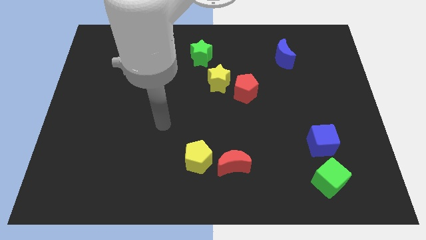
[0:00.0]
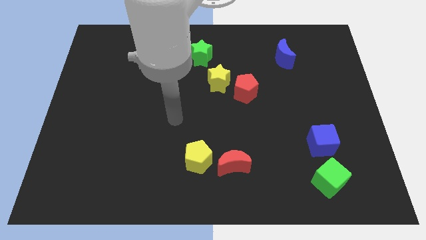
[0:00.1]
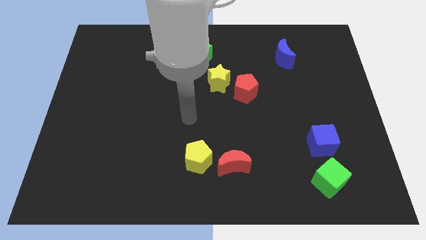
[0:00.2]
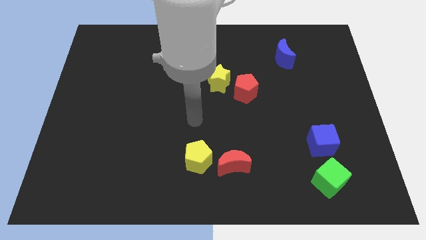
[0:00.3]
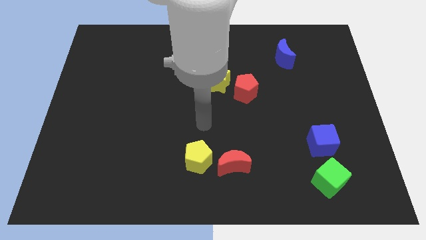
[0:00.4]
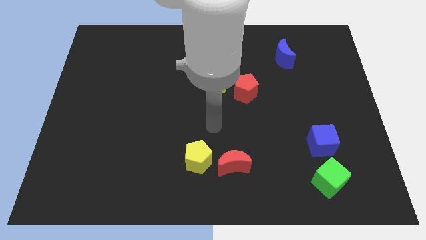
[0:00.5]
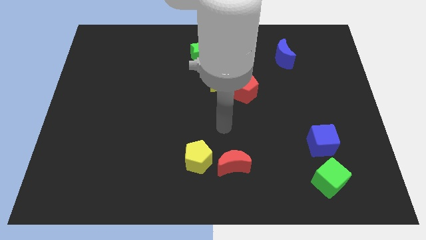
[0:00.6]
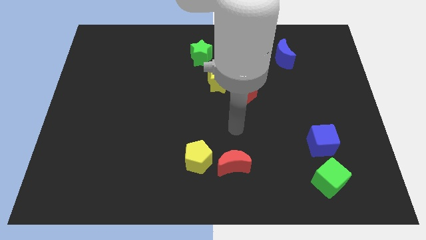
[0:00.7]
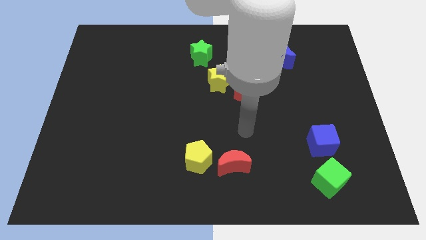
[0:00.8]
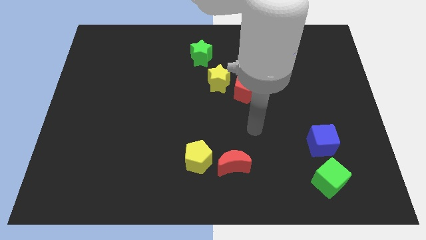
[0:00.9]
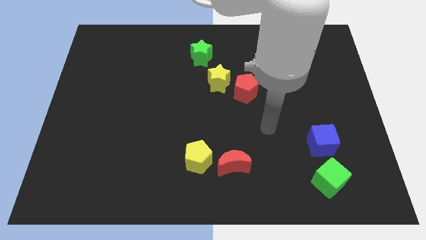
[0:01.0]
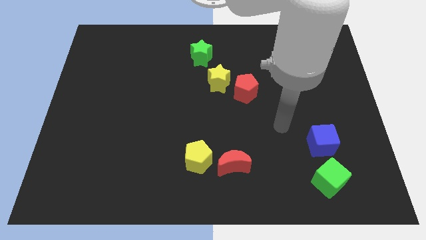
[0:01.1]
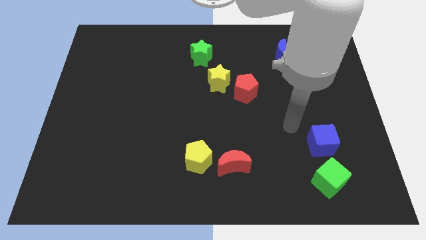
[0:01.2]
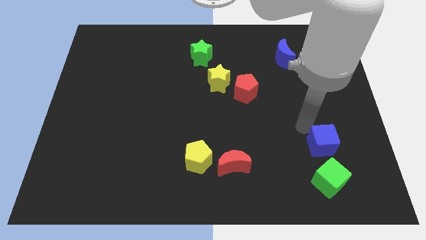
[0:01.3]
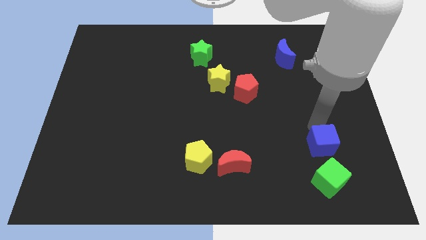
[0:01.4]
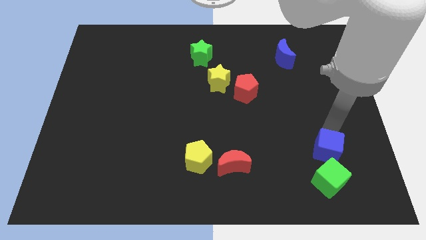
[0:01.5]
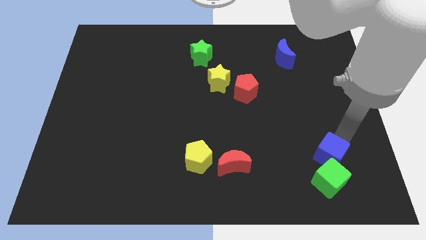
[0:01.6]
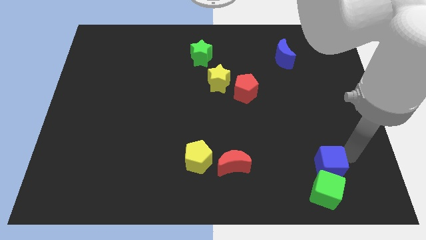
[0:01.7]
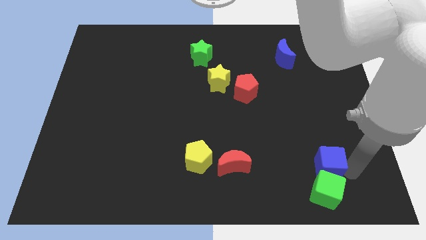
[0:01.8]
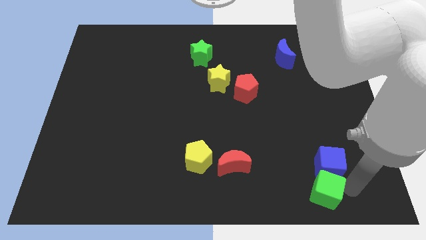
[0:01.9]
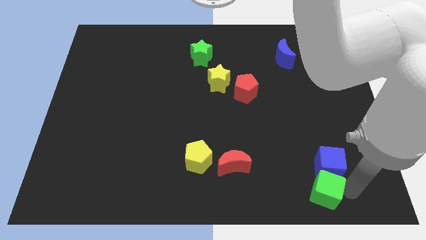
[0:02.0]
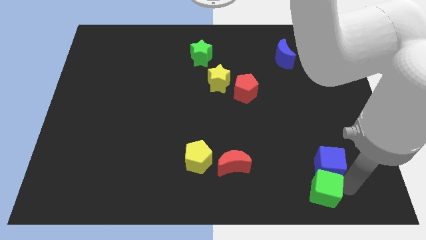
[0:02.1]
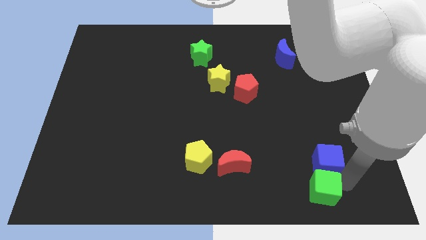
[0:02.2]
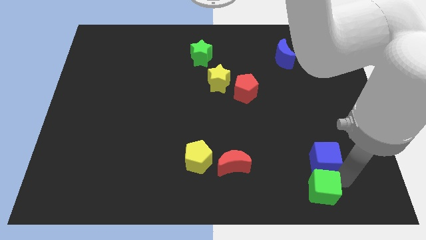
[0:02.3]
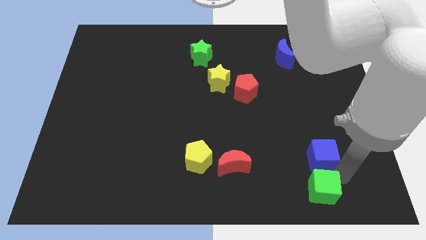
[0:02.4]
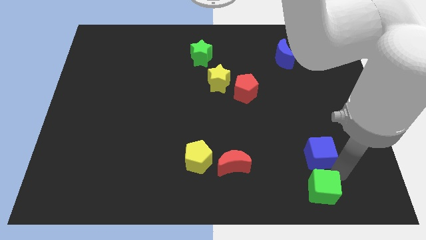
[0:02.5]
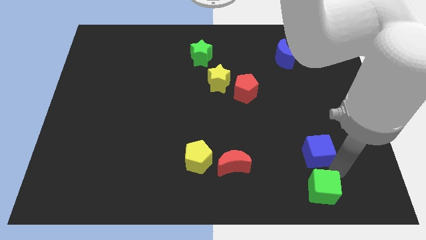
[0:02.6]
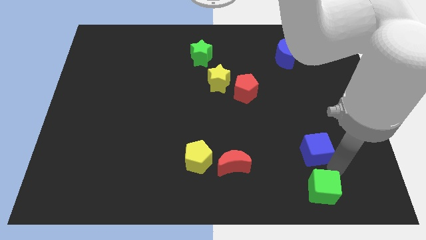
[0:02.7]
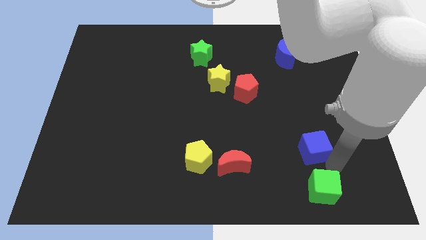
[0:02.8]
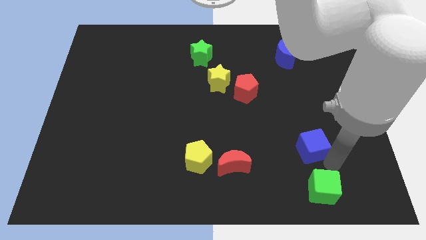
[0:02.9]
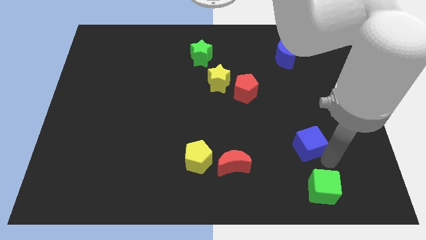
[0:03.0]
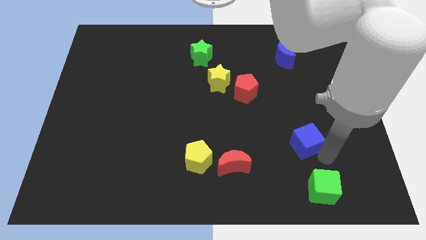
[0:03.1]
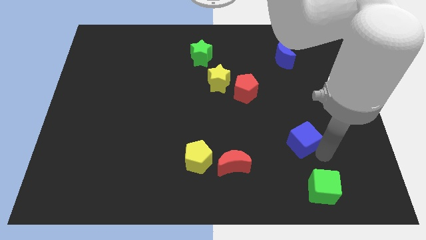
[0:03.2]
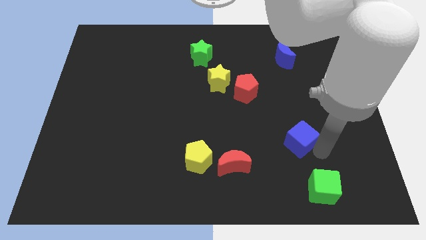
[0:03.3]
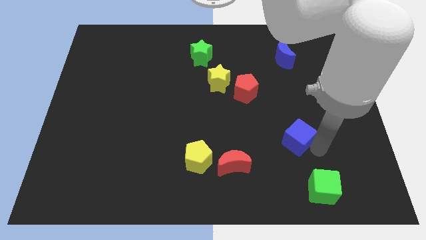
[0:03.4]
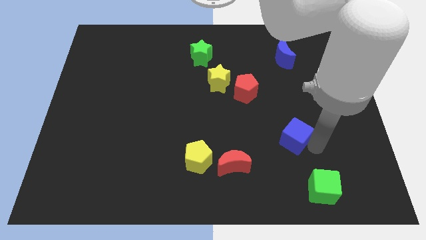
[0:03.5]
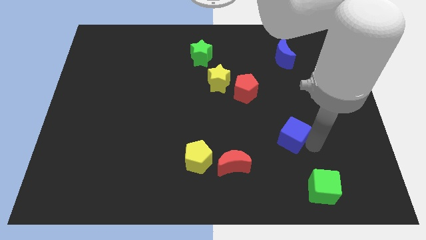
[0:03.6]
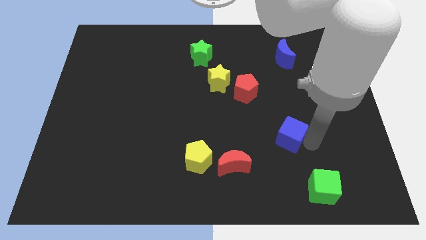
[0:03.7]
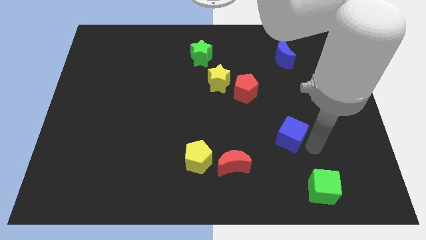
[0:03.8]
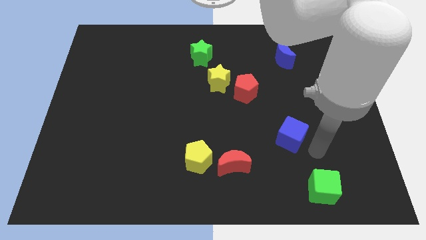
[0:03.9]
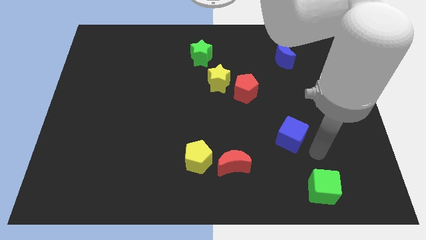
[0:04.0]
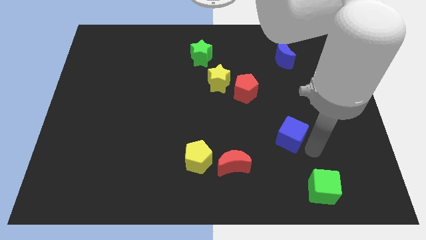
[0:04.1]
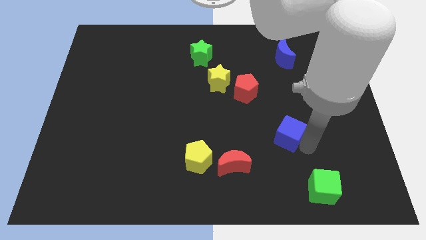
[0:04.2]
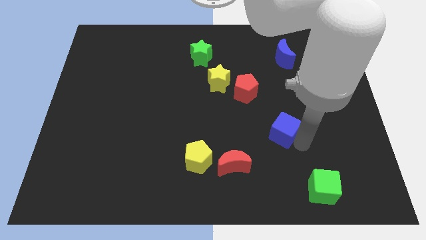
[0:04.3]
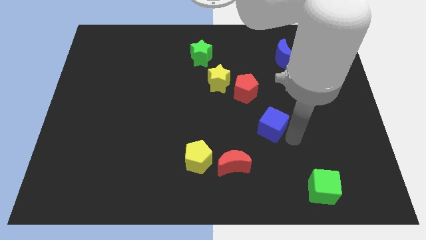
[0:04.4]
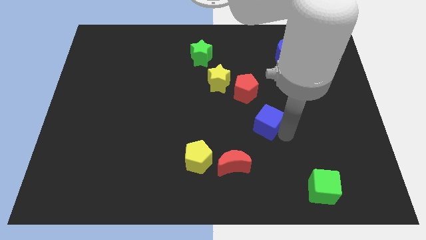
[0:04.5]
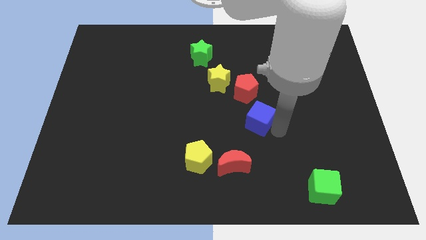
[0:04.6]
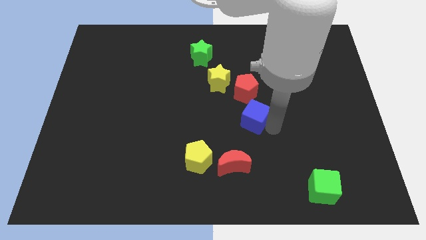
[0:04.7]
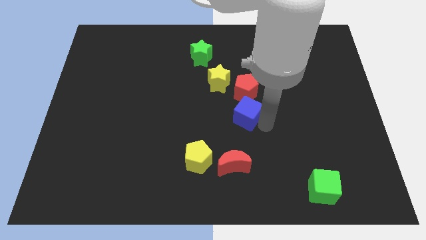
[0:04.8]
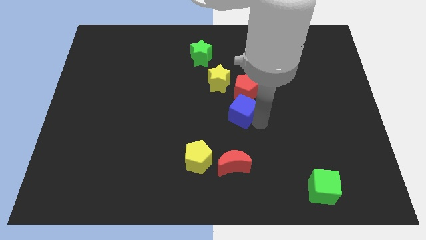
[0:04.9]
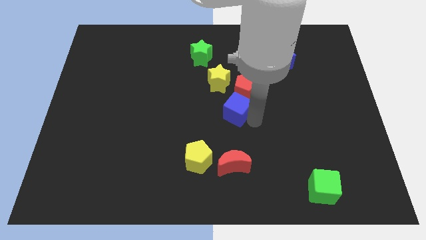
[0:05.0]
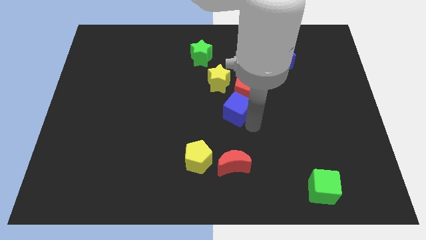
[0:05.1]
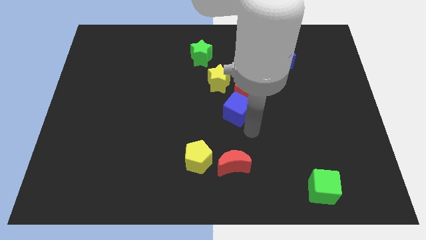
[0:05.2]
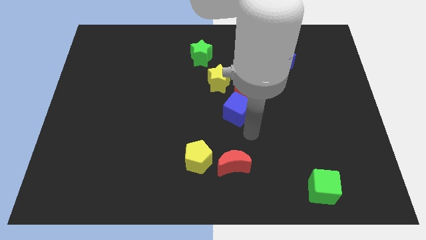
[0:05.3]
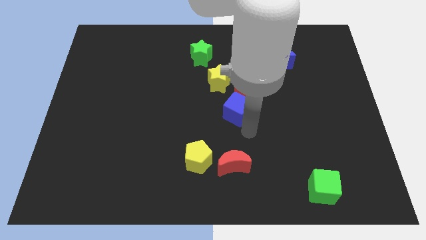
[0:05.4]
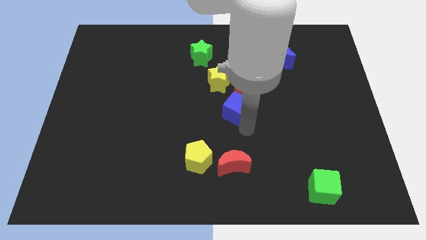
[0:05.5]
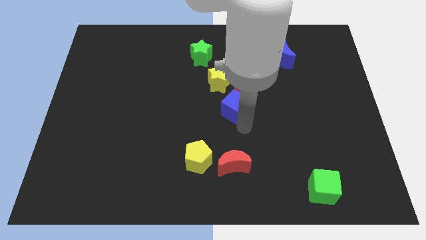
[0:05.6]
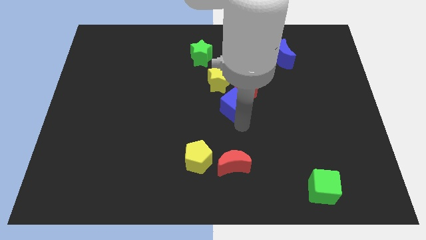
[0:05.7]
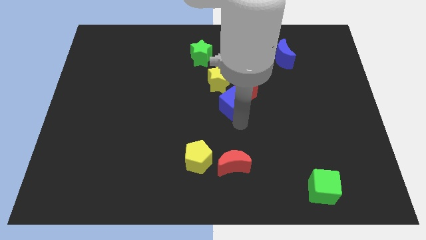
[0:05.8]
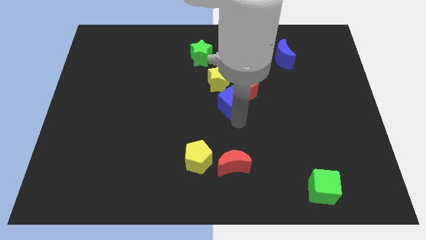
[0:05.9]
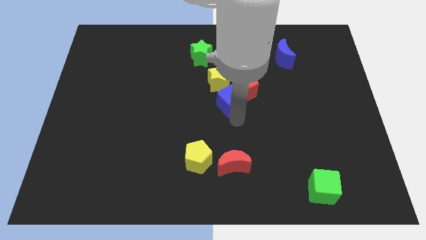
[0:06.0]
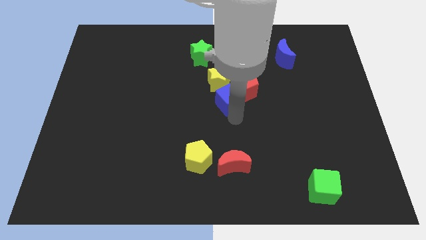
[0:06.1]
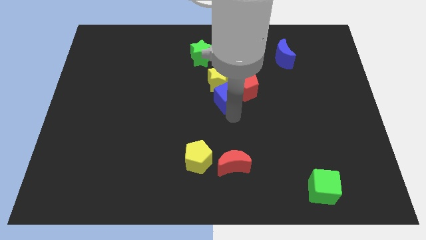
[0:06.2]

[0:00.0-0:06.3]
push the blue cube towards the yellow star

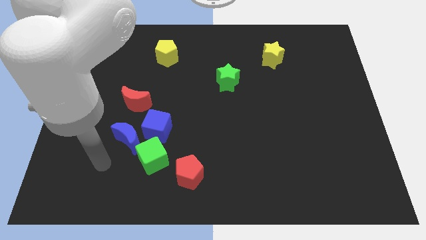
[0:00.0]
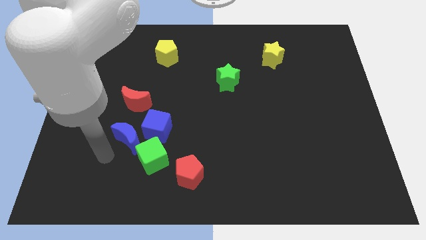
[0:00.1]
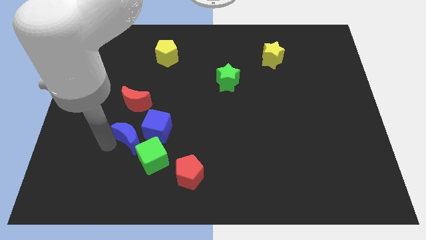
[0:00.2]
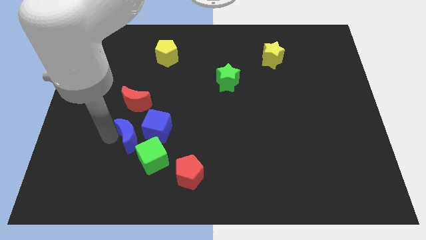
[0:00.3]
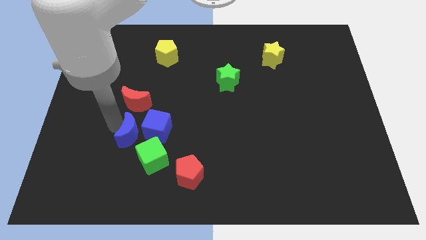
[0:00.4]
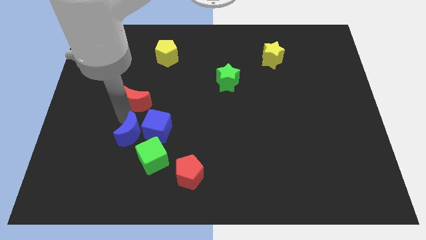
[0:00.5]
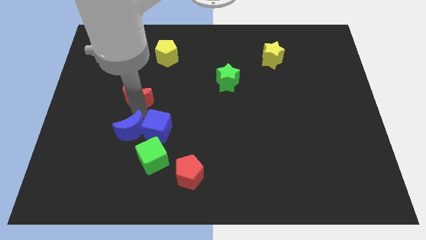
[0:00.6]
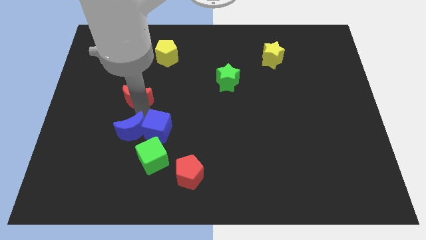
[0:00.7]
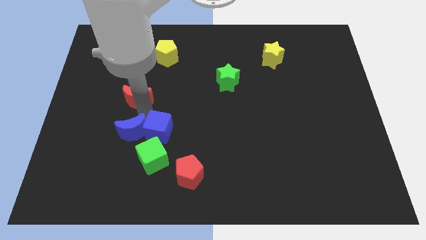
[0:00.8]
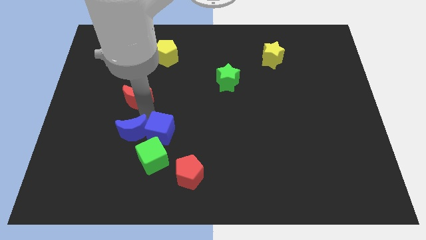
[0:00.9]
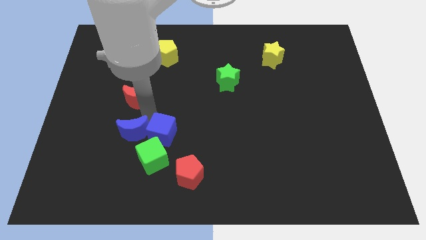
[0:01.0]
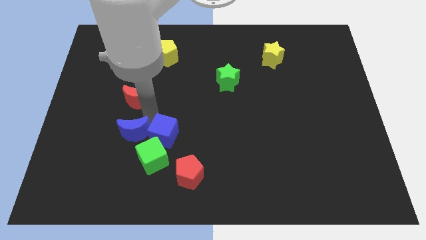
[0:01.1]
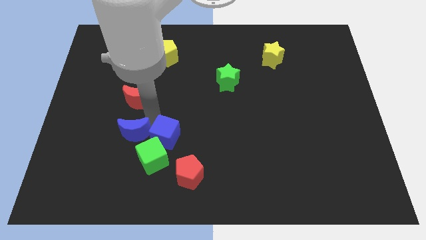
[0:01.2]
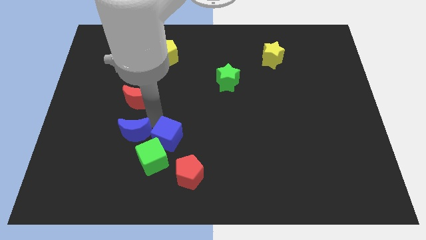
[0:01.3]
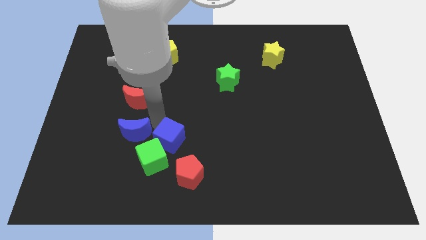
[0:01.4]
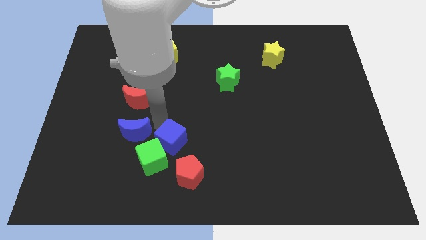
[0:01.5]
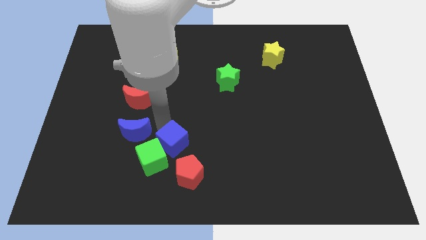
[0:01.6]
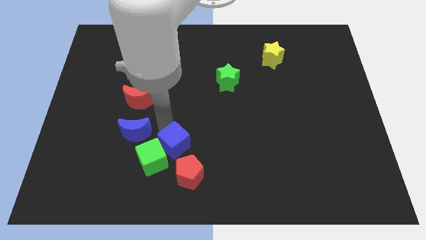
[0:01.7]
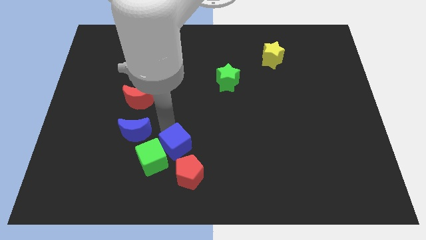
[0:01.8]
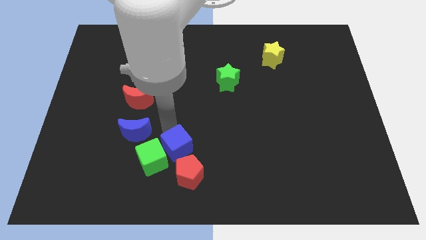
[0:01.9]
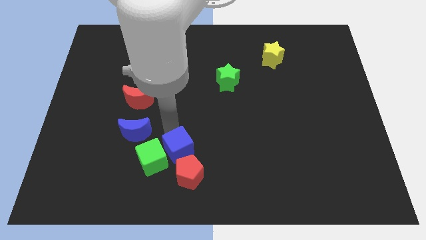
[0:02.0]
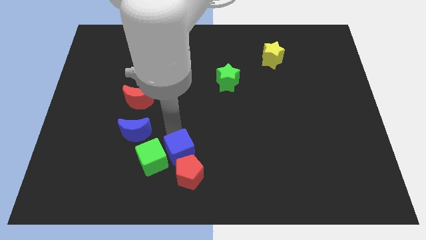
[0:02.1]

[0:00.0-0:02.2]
push the blue cube next to the red pentagon
